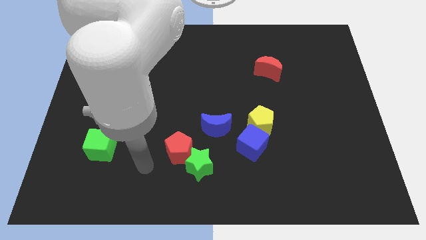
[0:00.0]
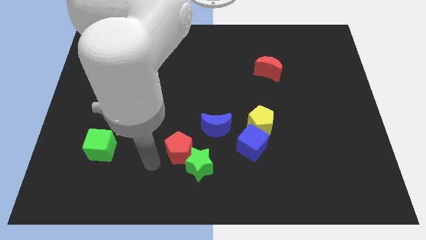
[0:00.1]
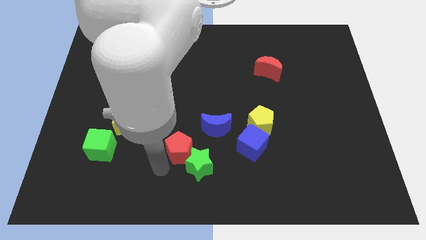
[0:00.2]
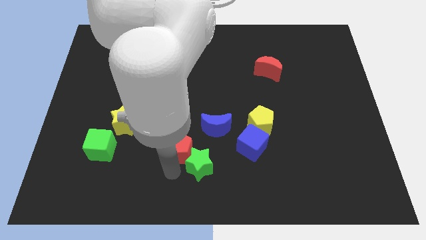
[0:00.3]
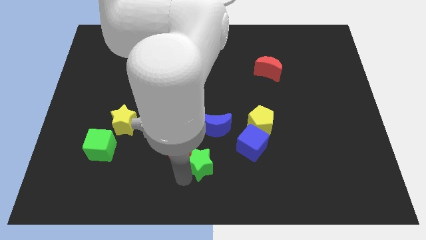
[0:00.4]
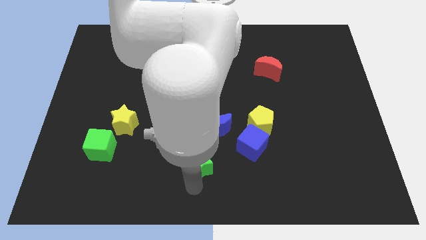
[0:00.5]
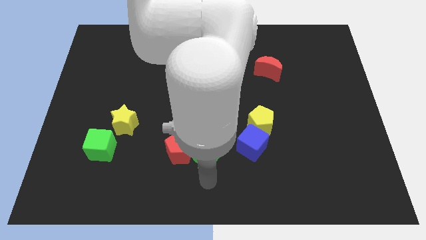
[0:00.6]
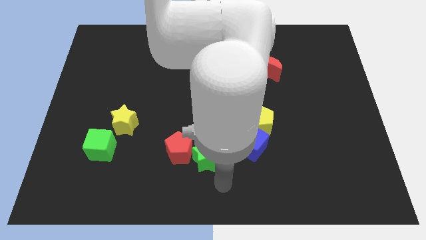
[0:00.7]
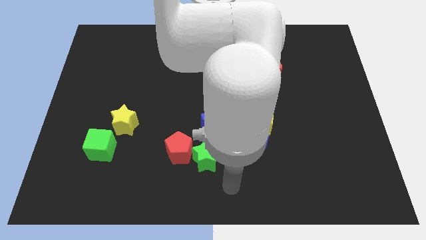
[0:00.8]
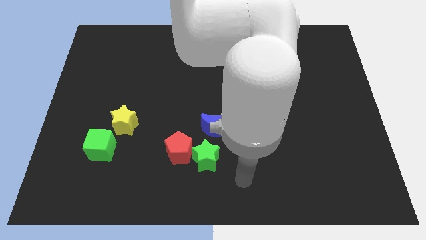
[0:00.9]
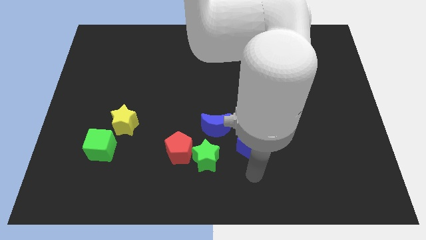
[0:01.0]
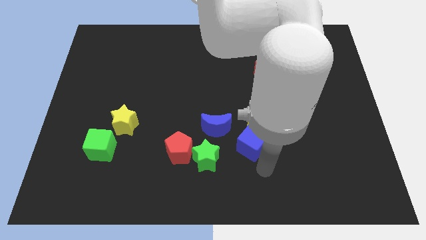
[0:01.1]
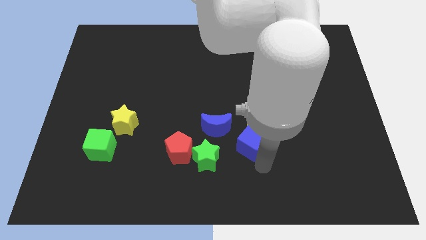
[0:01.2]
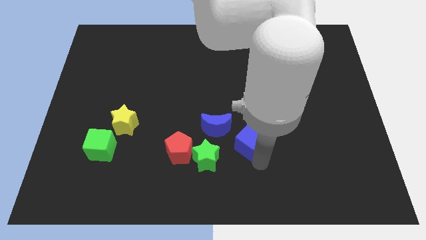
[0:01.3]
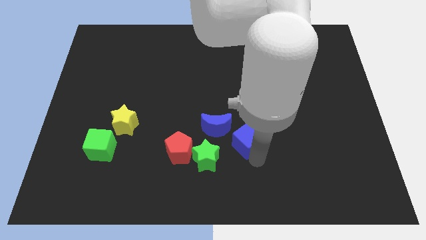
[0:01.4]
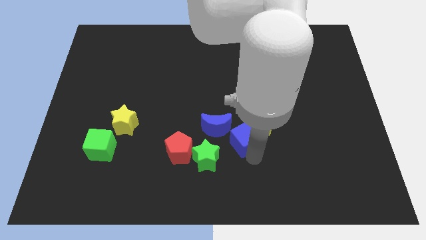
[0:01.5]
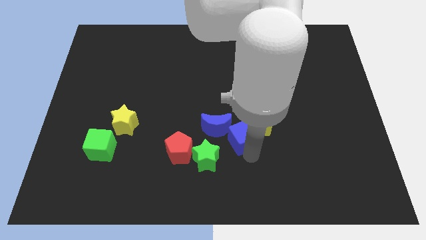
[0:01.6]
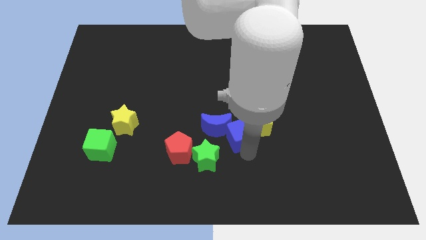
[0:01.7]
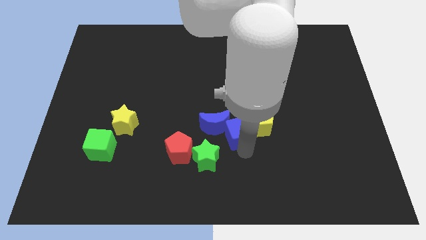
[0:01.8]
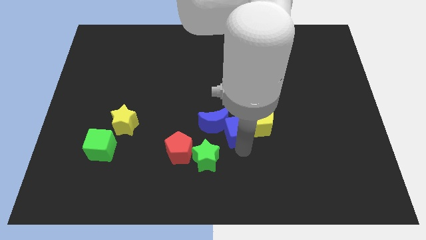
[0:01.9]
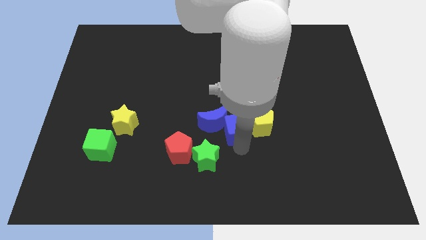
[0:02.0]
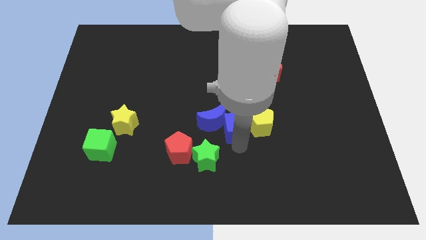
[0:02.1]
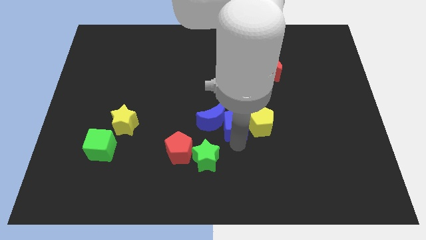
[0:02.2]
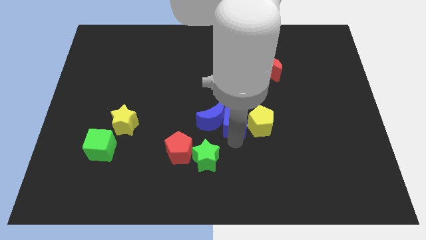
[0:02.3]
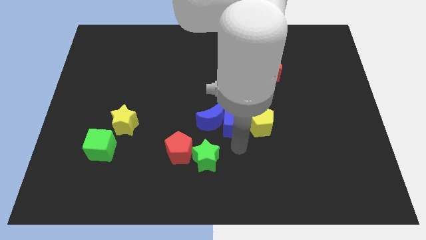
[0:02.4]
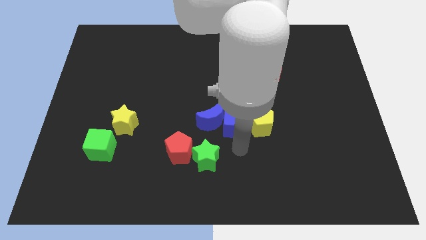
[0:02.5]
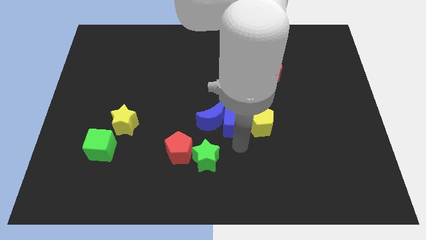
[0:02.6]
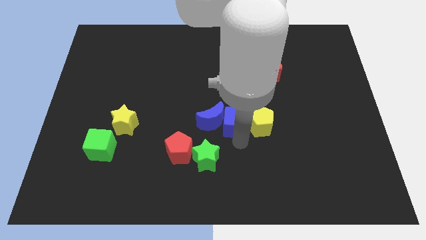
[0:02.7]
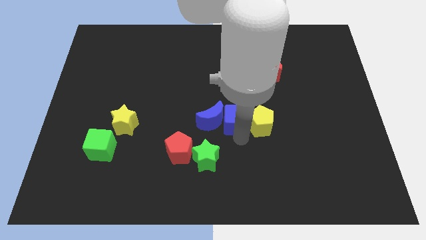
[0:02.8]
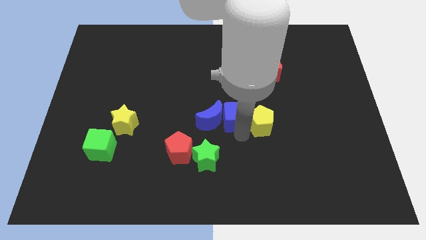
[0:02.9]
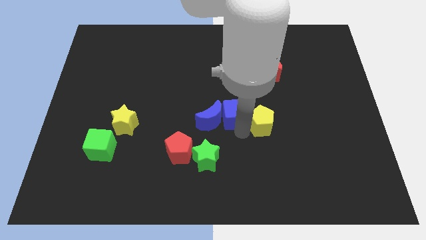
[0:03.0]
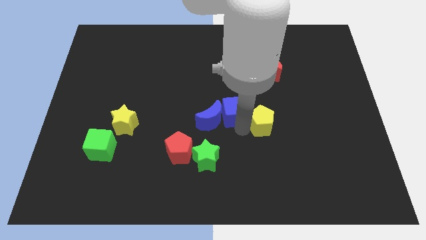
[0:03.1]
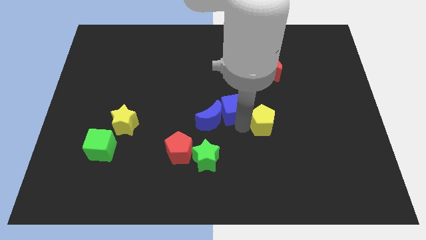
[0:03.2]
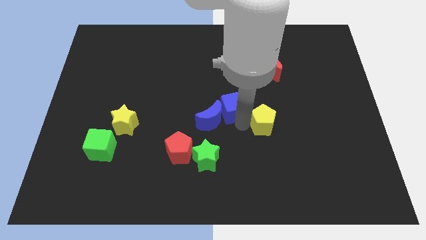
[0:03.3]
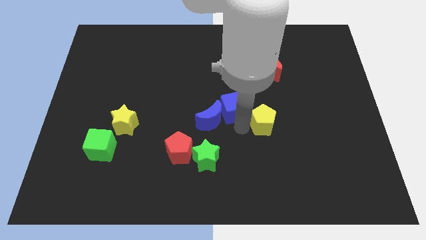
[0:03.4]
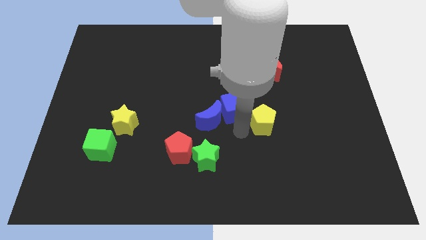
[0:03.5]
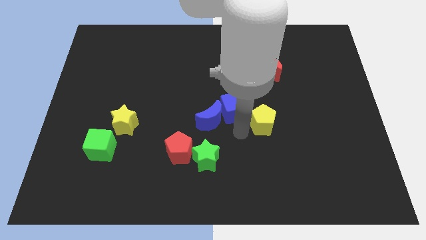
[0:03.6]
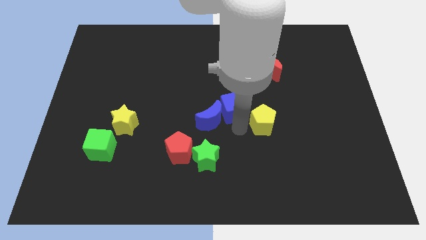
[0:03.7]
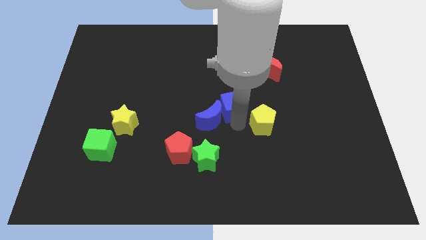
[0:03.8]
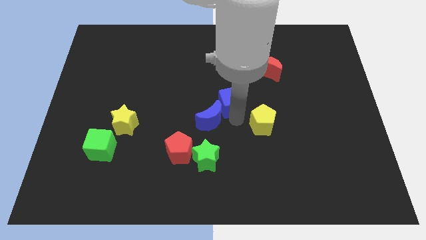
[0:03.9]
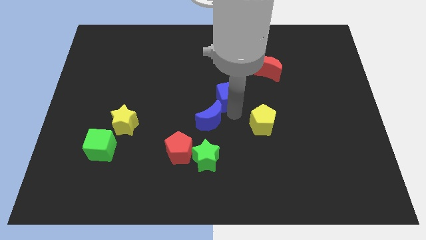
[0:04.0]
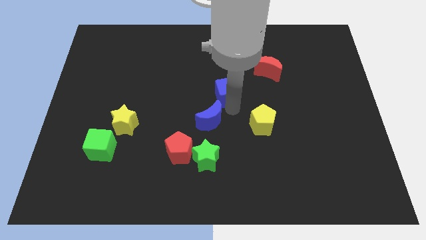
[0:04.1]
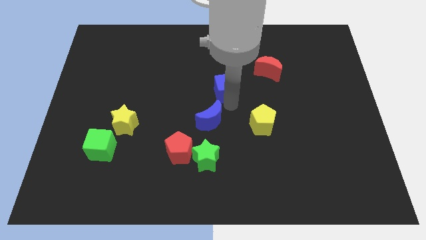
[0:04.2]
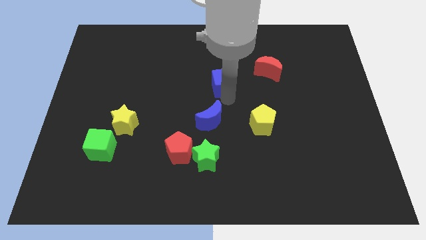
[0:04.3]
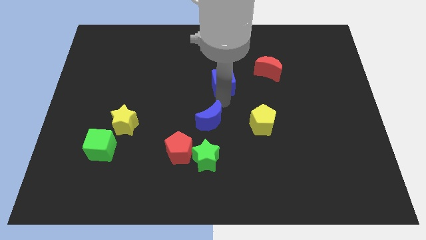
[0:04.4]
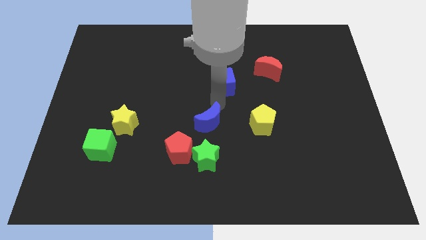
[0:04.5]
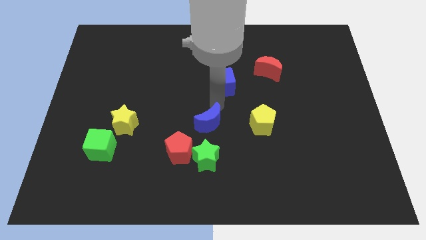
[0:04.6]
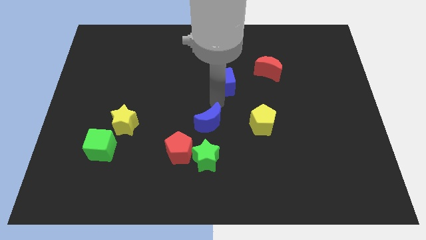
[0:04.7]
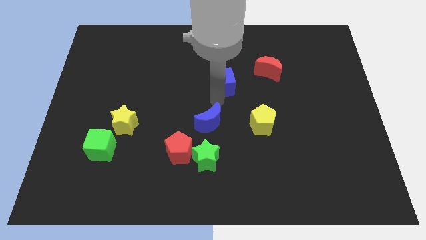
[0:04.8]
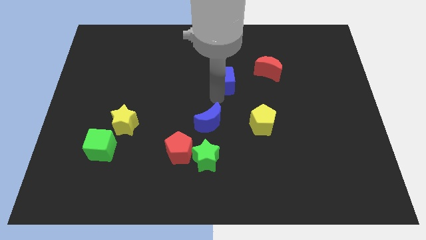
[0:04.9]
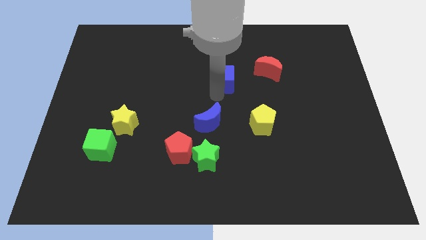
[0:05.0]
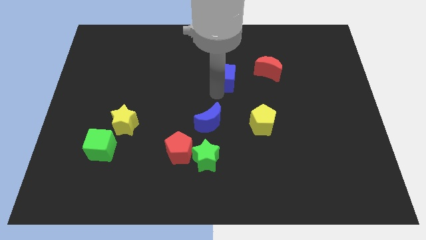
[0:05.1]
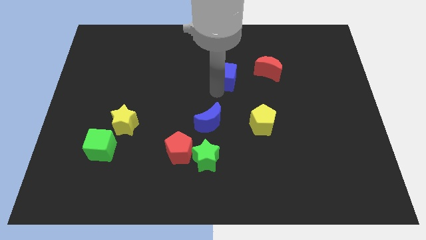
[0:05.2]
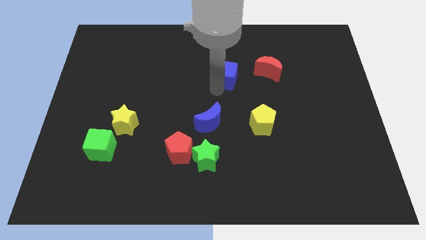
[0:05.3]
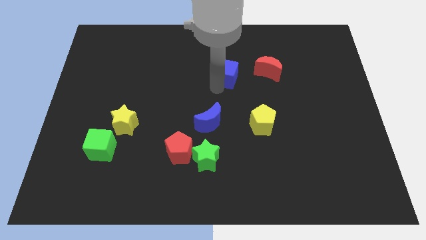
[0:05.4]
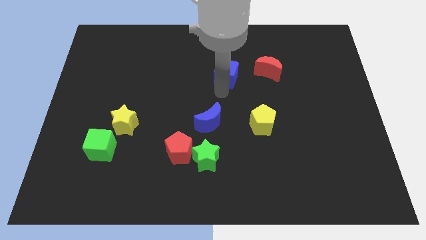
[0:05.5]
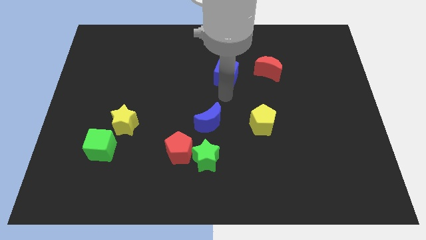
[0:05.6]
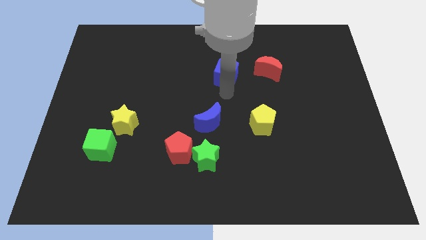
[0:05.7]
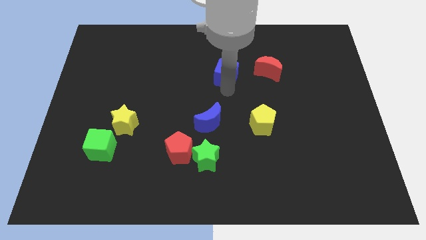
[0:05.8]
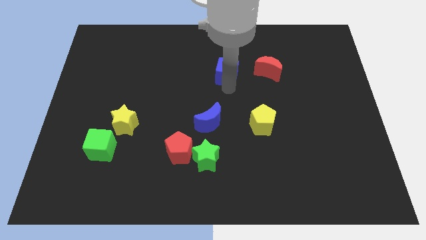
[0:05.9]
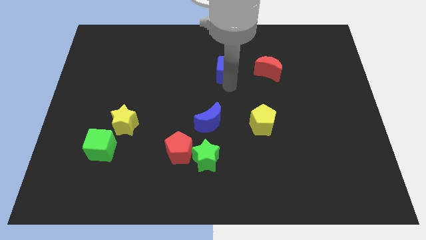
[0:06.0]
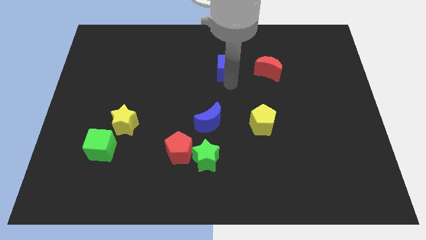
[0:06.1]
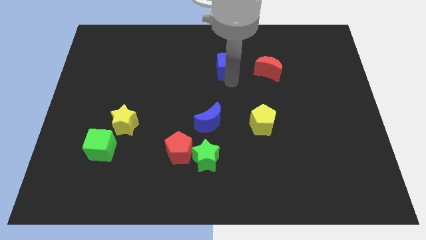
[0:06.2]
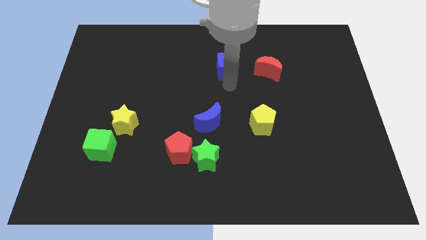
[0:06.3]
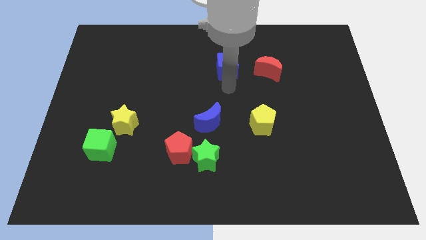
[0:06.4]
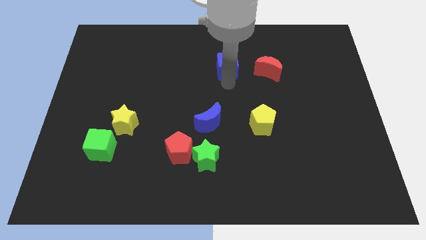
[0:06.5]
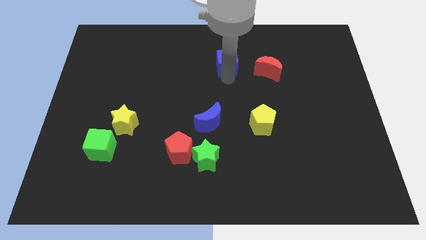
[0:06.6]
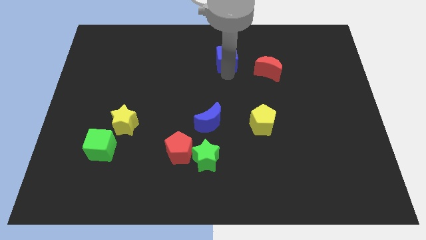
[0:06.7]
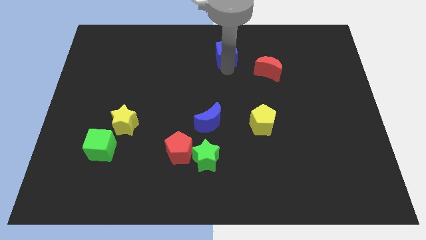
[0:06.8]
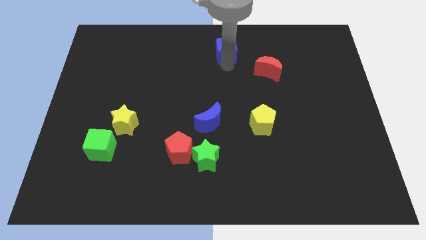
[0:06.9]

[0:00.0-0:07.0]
push the blue cube to the top
